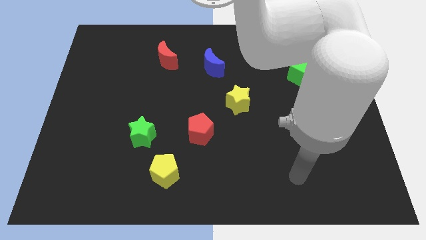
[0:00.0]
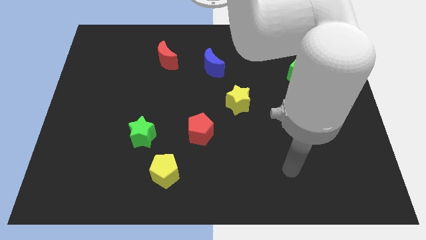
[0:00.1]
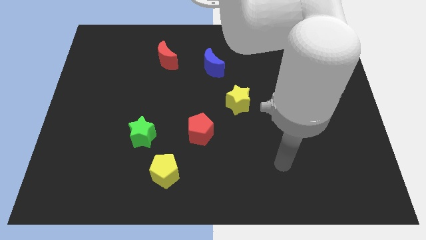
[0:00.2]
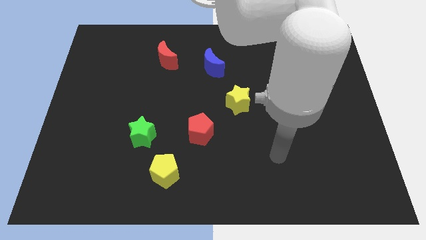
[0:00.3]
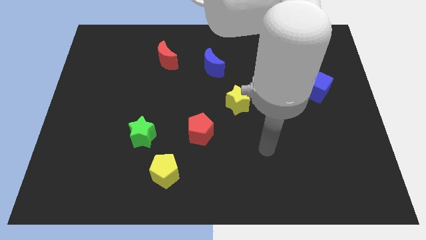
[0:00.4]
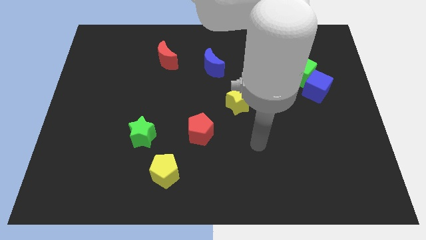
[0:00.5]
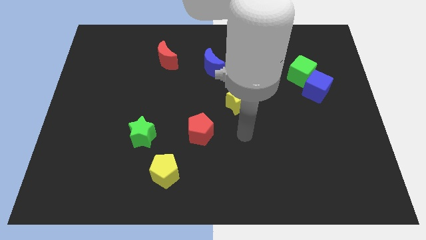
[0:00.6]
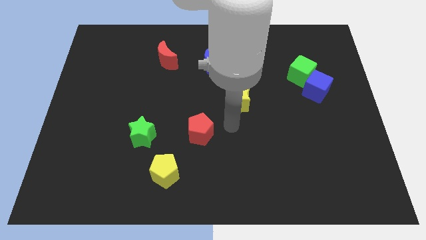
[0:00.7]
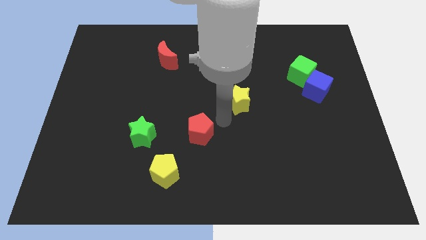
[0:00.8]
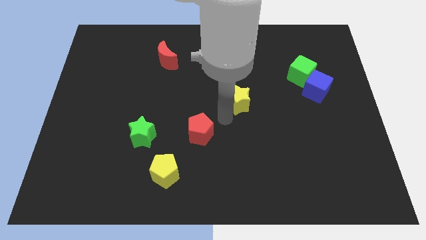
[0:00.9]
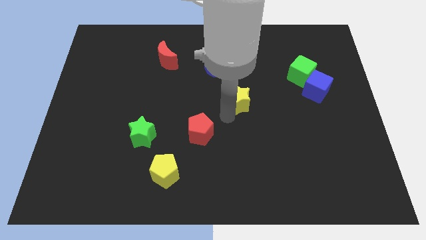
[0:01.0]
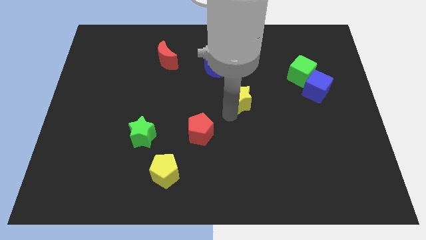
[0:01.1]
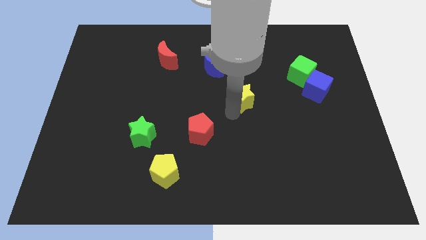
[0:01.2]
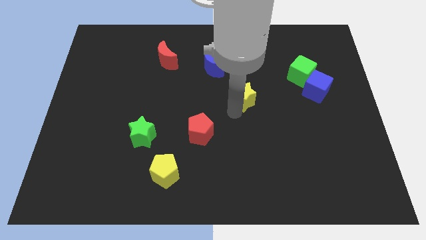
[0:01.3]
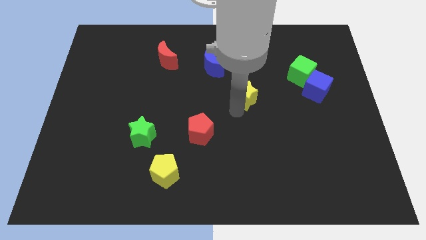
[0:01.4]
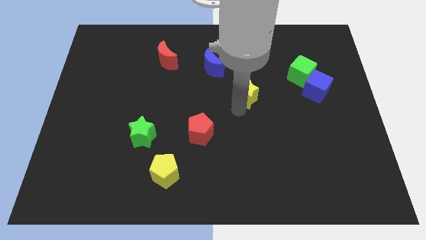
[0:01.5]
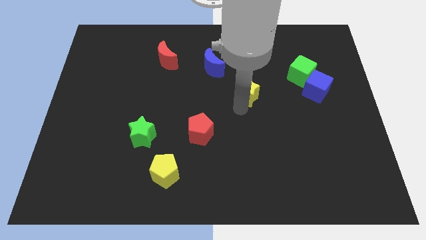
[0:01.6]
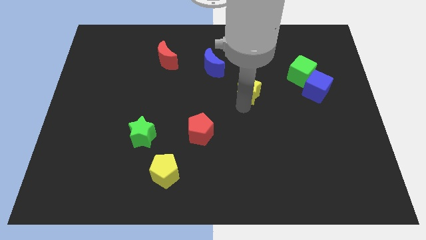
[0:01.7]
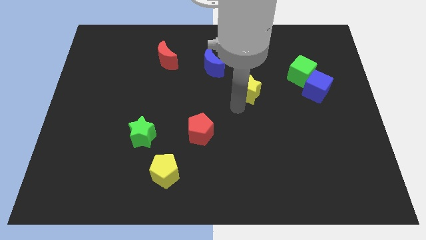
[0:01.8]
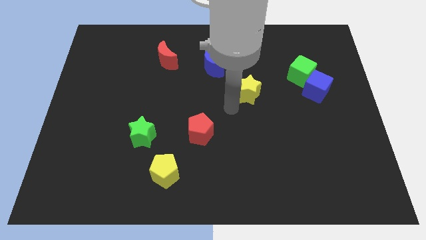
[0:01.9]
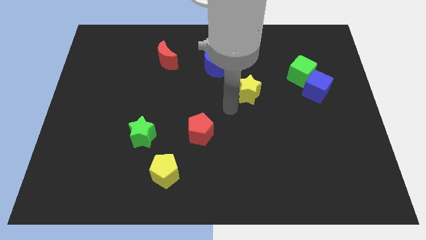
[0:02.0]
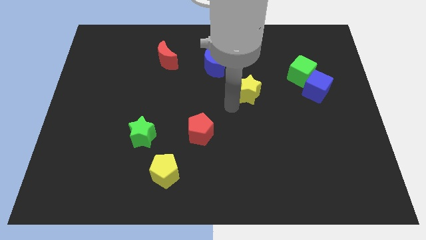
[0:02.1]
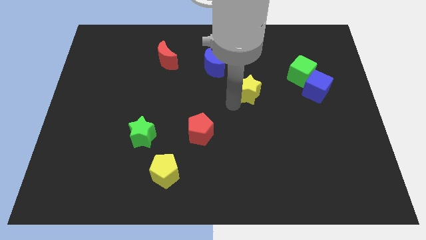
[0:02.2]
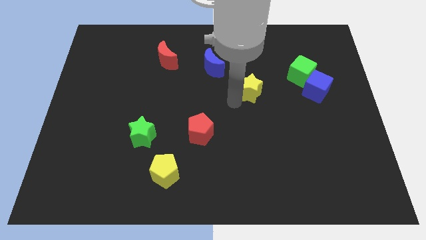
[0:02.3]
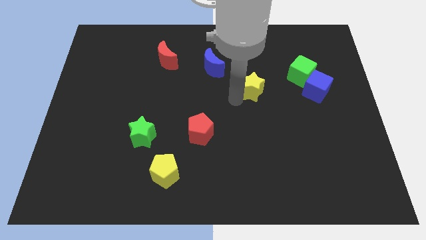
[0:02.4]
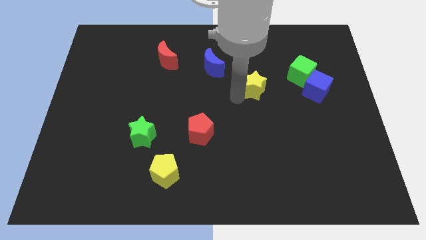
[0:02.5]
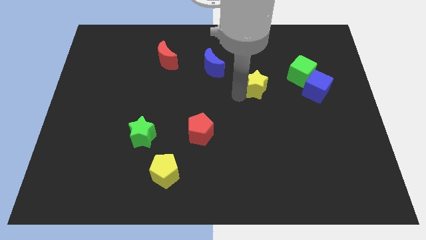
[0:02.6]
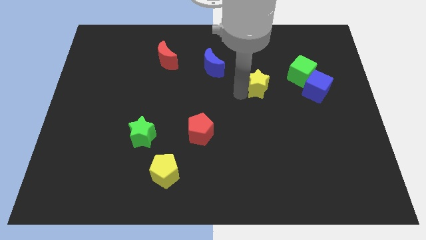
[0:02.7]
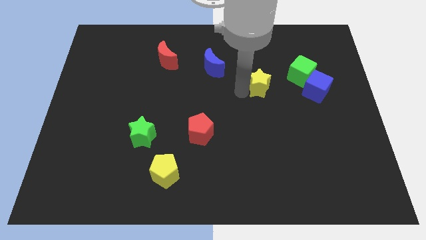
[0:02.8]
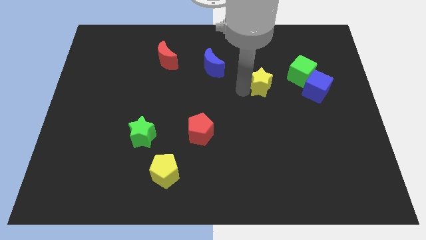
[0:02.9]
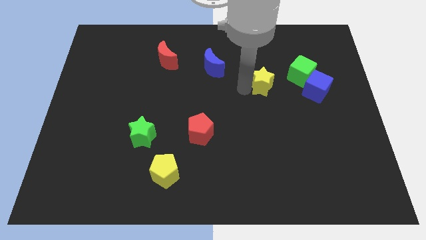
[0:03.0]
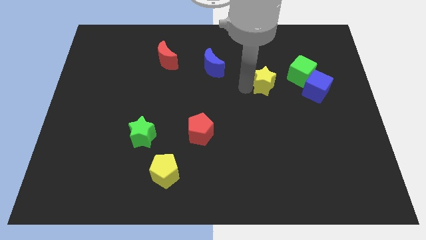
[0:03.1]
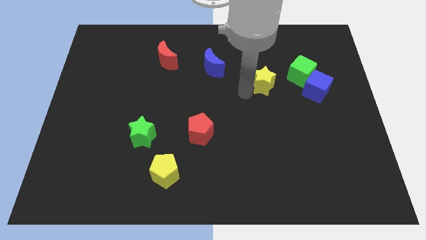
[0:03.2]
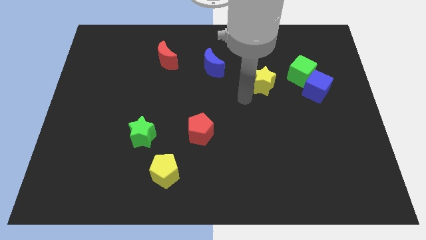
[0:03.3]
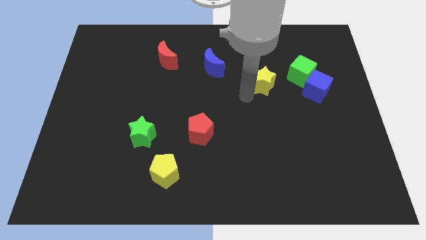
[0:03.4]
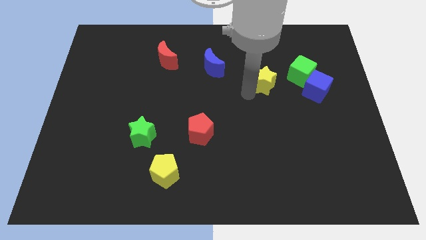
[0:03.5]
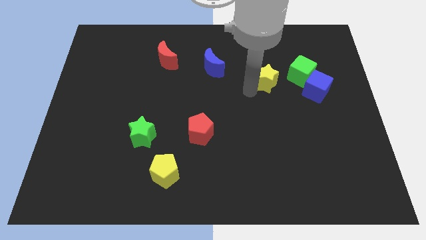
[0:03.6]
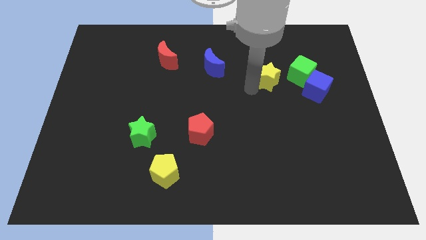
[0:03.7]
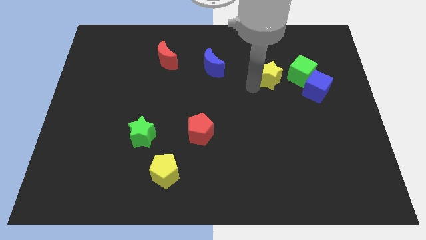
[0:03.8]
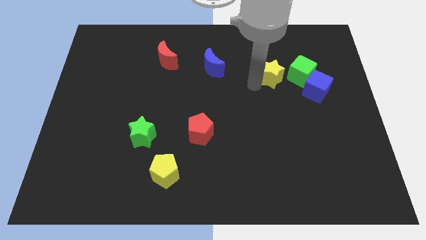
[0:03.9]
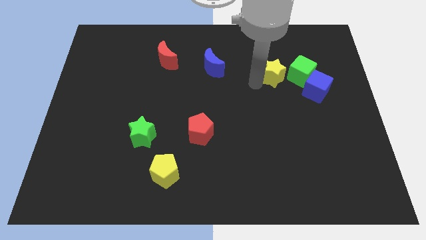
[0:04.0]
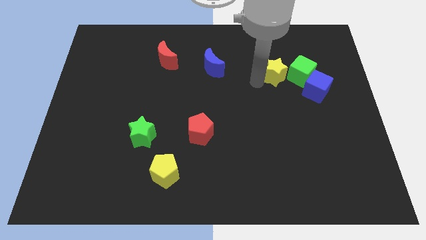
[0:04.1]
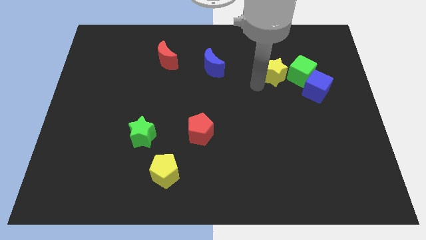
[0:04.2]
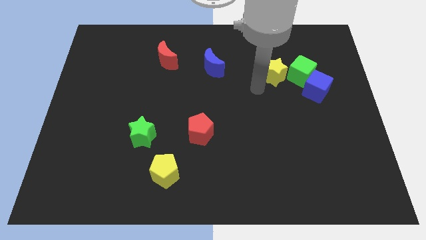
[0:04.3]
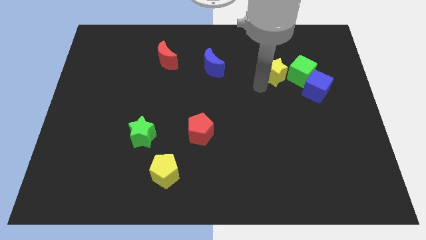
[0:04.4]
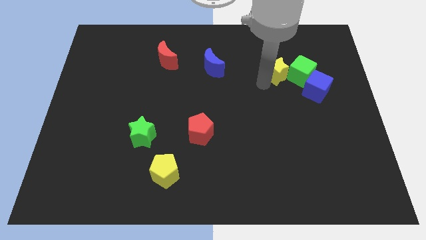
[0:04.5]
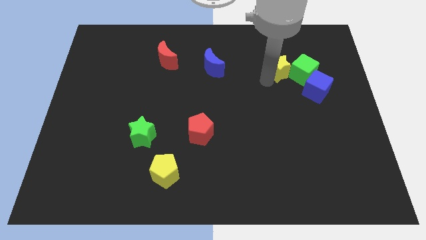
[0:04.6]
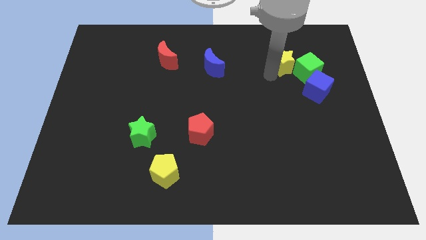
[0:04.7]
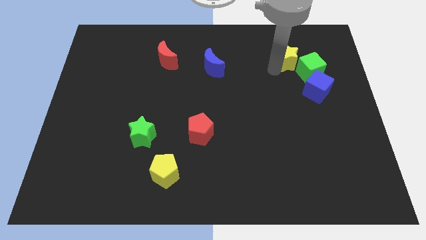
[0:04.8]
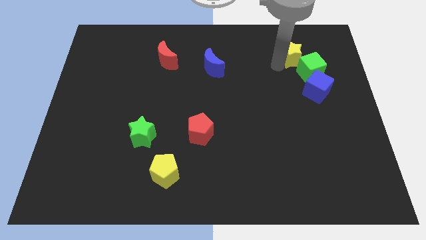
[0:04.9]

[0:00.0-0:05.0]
move the yellow star to the top side of the blue cube

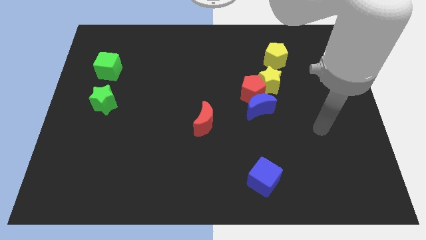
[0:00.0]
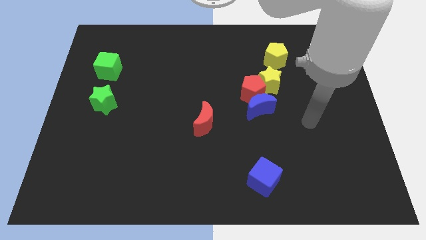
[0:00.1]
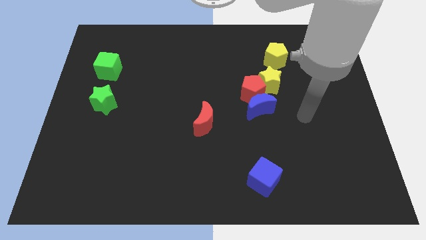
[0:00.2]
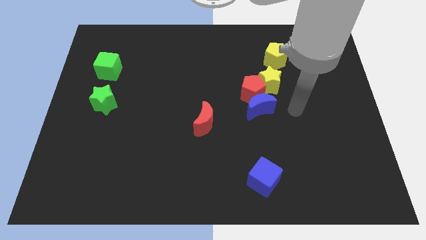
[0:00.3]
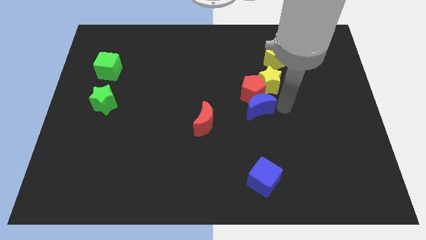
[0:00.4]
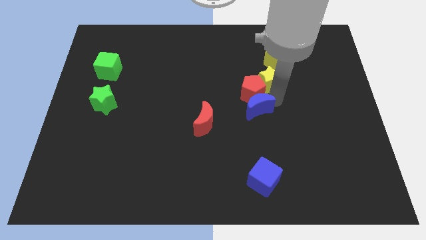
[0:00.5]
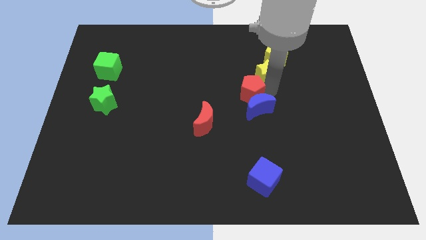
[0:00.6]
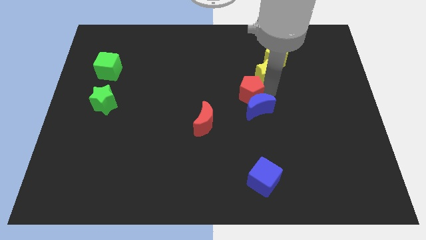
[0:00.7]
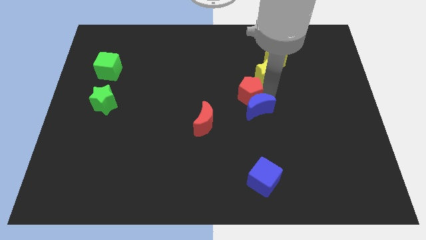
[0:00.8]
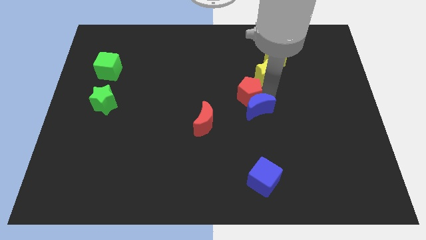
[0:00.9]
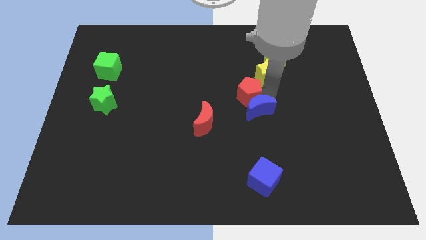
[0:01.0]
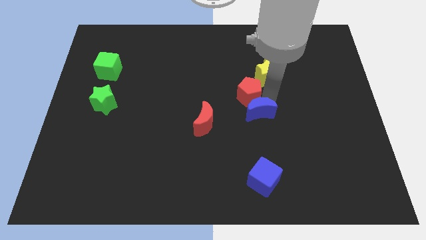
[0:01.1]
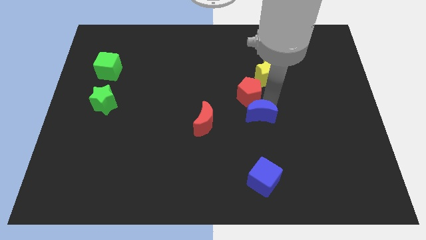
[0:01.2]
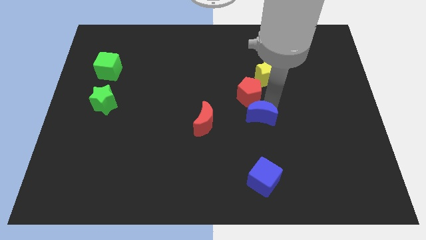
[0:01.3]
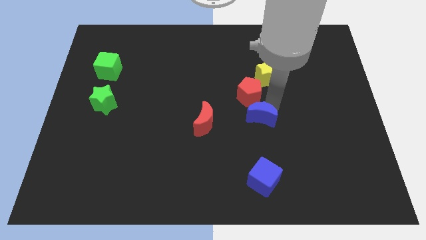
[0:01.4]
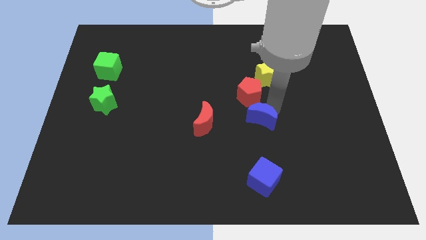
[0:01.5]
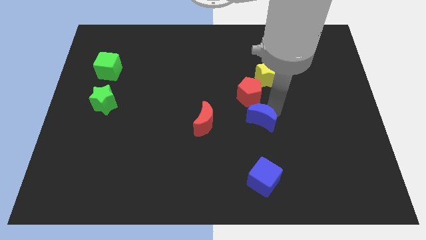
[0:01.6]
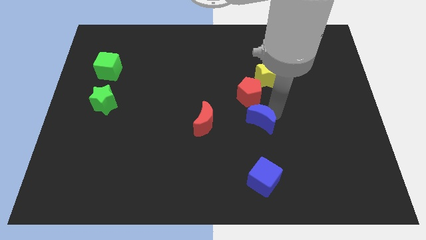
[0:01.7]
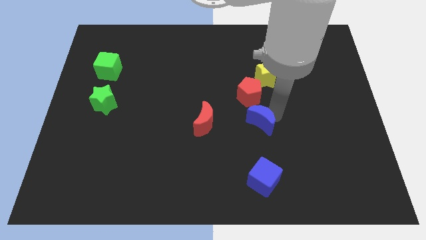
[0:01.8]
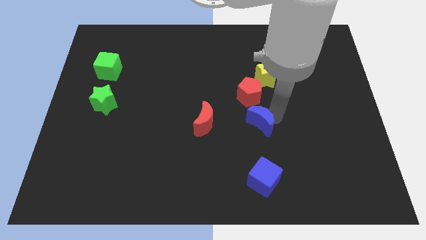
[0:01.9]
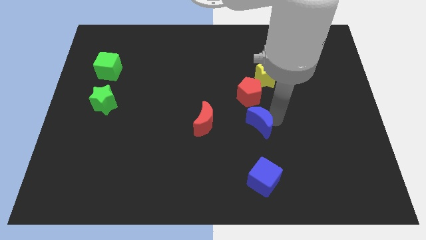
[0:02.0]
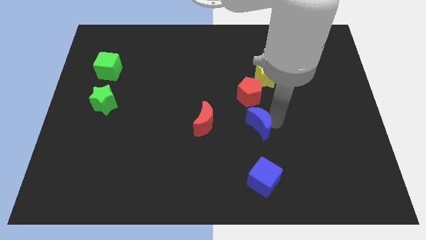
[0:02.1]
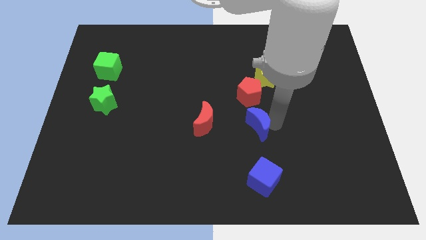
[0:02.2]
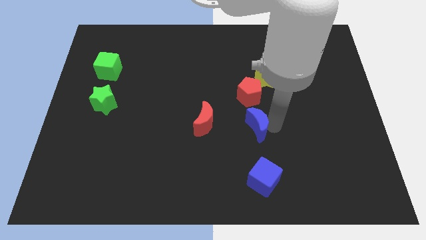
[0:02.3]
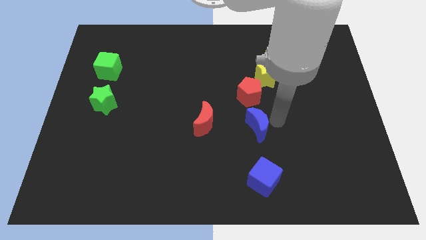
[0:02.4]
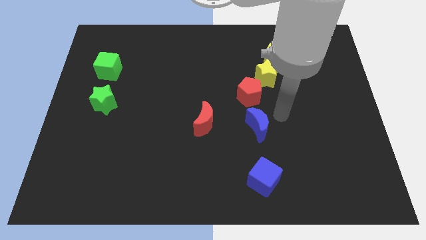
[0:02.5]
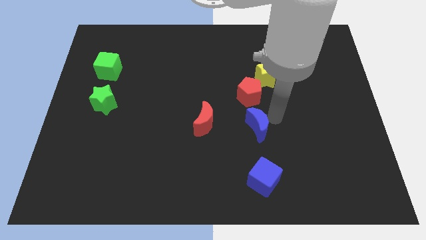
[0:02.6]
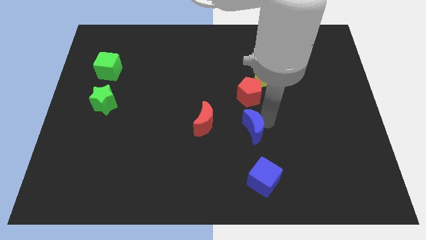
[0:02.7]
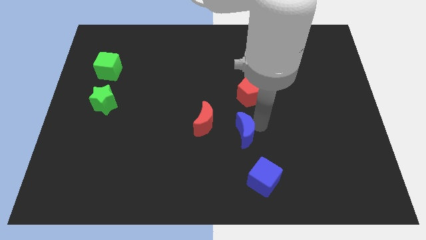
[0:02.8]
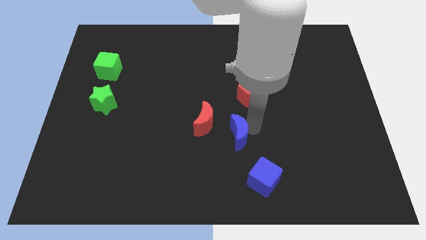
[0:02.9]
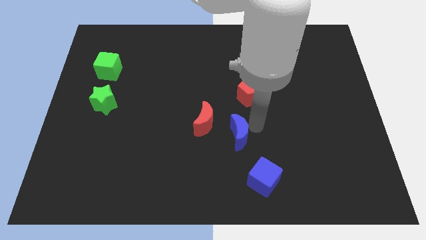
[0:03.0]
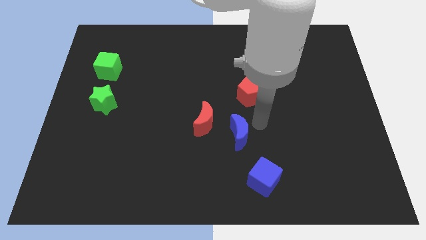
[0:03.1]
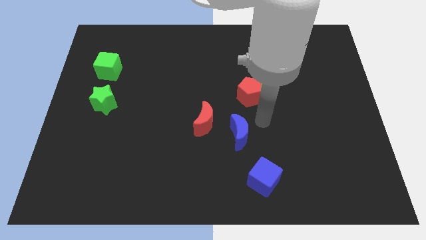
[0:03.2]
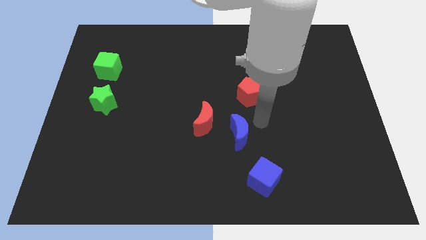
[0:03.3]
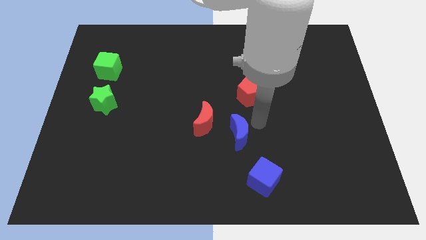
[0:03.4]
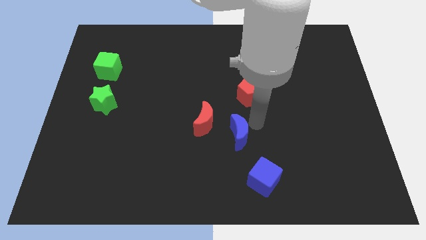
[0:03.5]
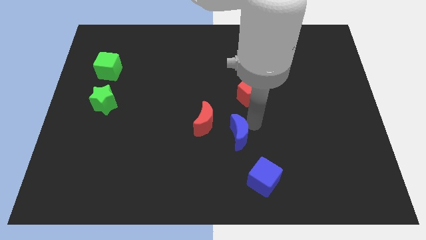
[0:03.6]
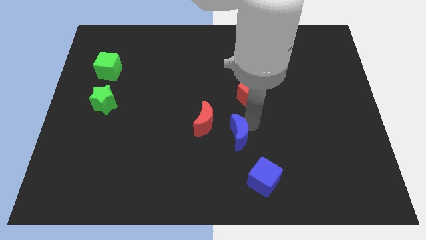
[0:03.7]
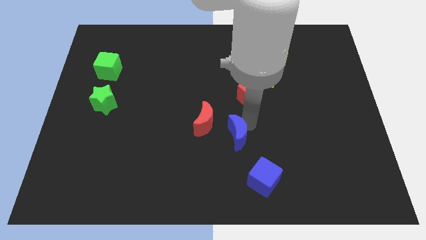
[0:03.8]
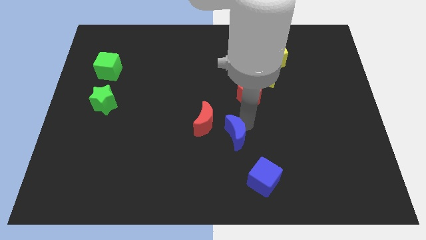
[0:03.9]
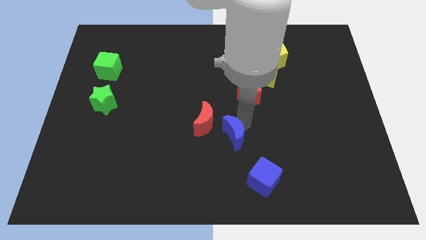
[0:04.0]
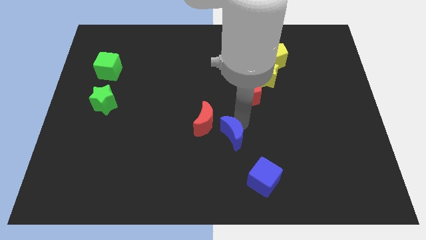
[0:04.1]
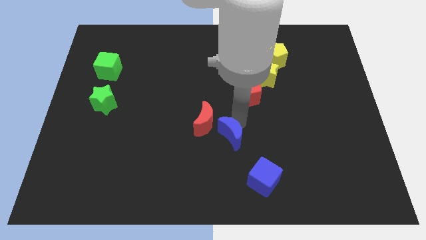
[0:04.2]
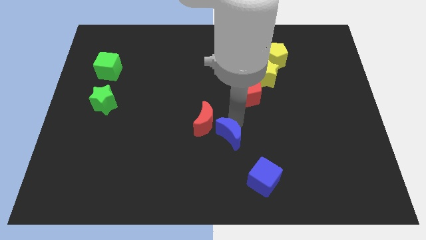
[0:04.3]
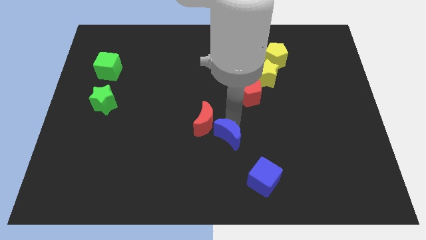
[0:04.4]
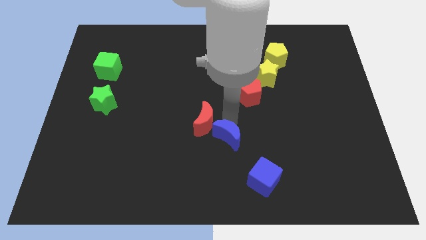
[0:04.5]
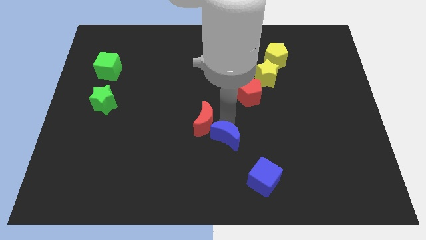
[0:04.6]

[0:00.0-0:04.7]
push the blue moon to the bottom of the red moon
